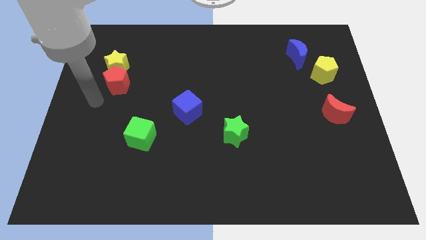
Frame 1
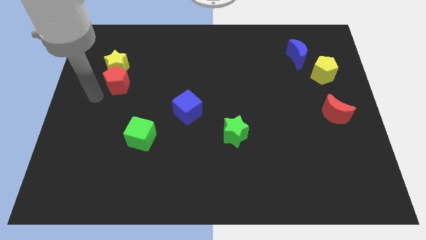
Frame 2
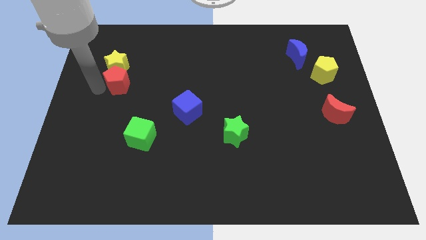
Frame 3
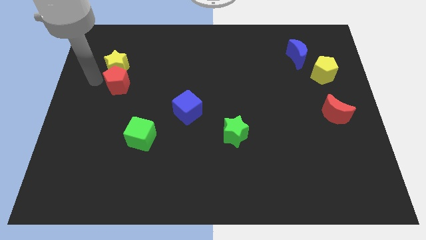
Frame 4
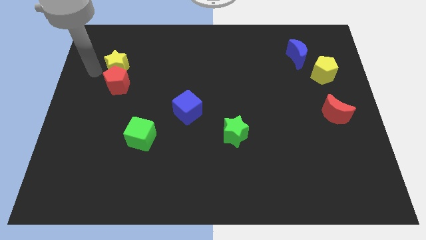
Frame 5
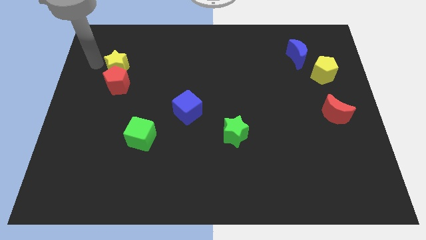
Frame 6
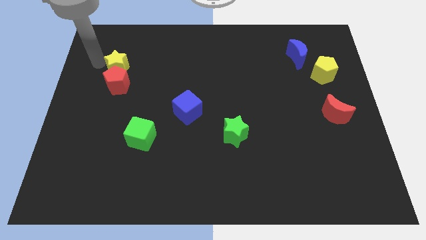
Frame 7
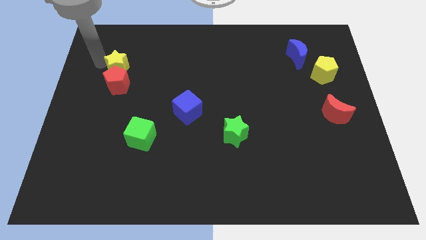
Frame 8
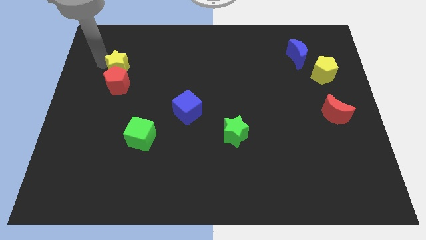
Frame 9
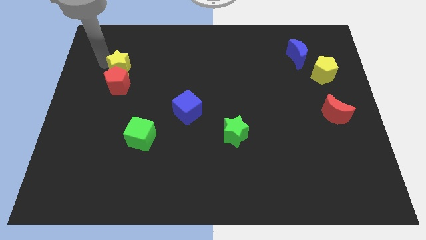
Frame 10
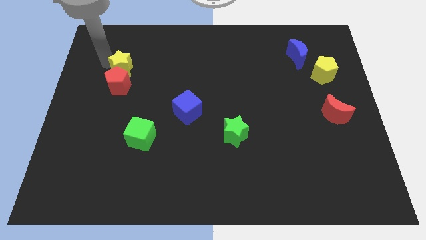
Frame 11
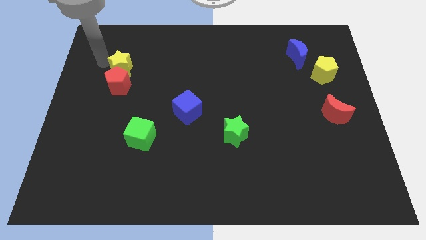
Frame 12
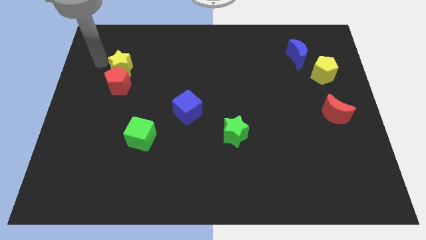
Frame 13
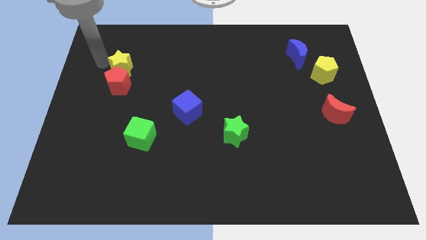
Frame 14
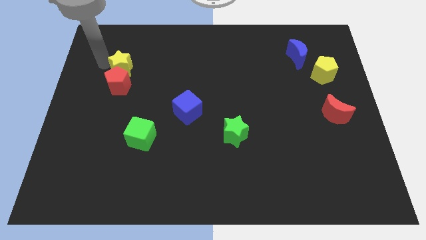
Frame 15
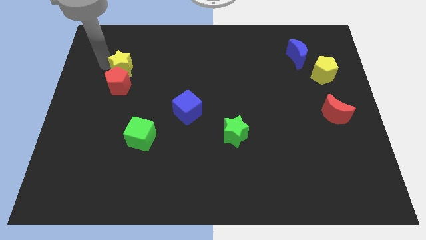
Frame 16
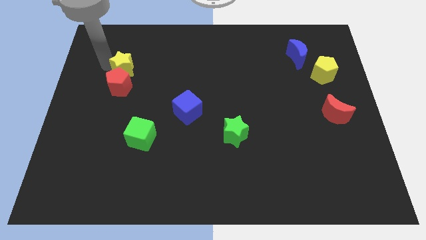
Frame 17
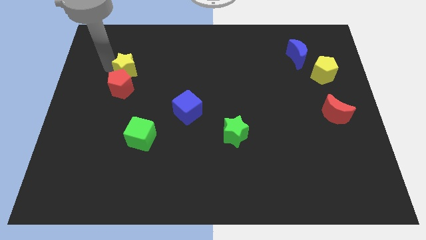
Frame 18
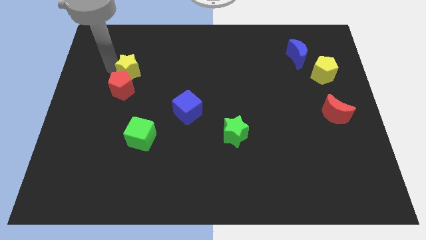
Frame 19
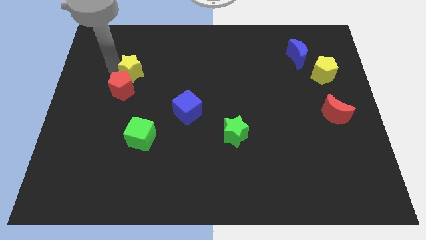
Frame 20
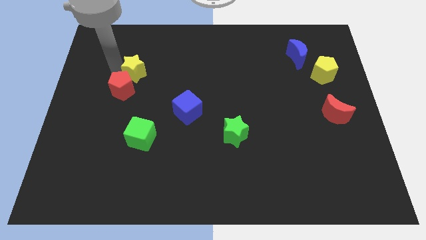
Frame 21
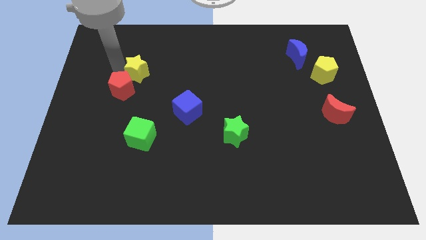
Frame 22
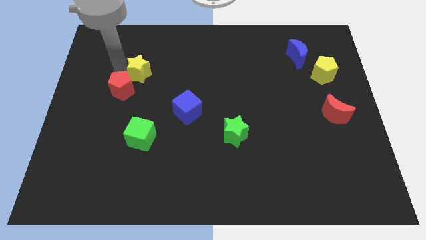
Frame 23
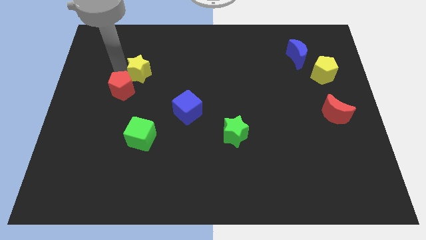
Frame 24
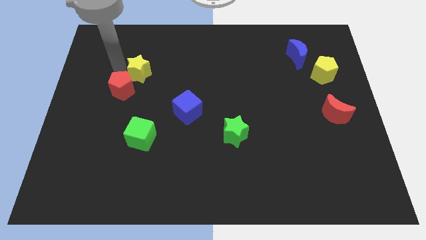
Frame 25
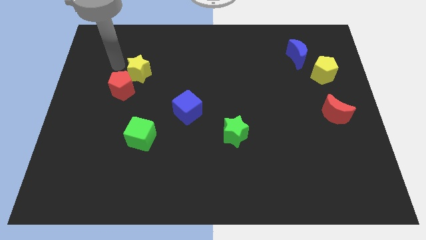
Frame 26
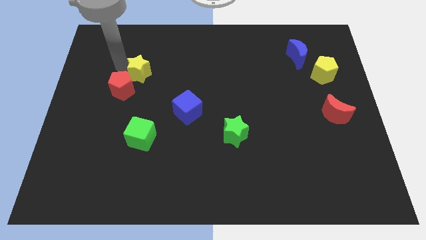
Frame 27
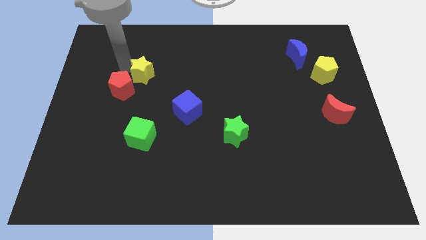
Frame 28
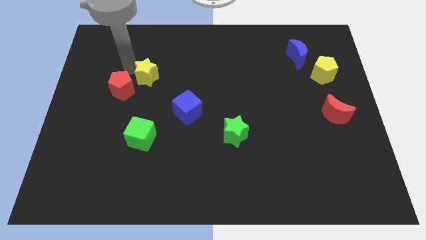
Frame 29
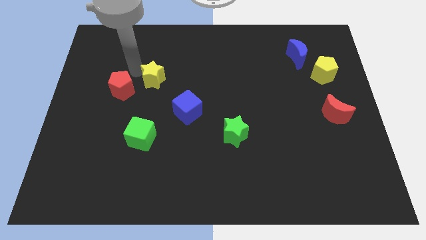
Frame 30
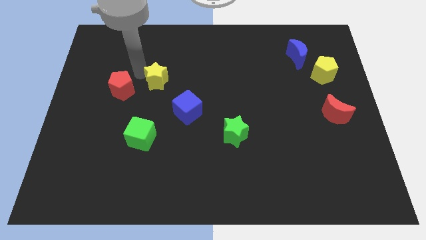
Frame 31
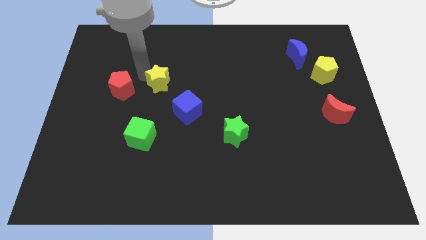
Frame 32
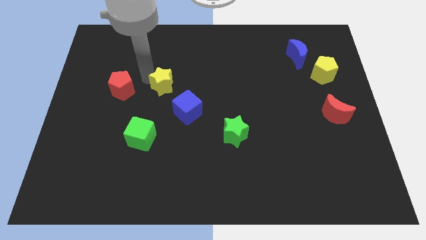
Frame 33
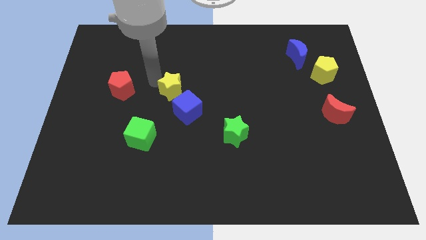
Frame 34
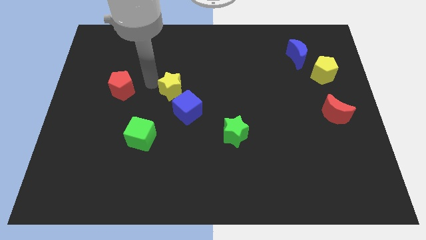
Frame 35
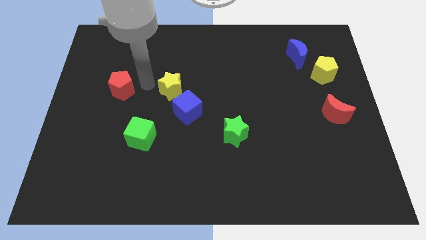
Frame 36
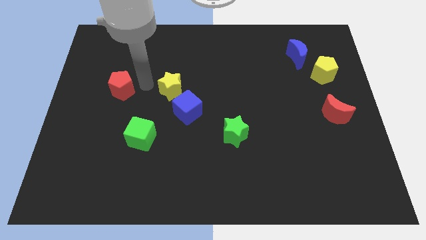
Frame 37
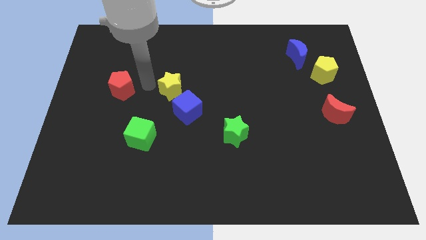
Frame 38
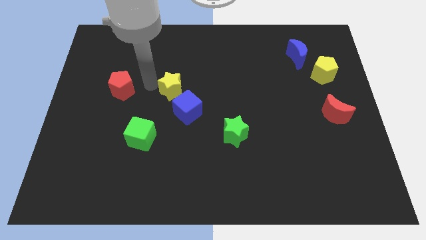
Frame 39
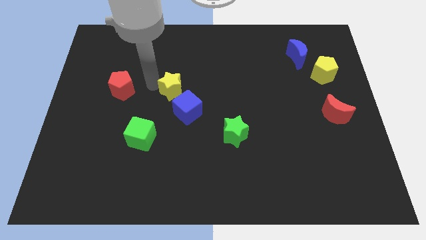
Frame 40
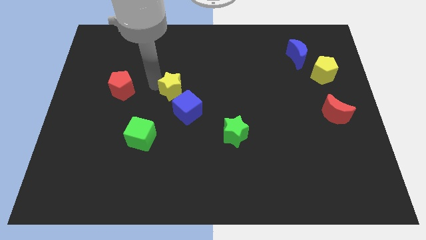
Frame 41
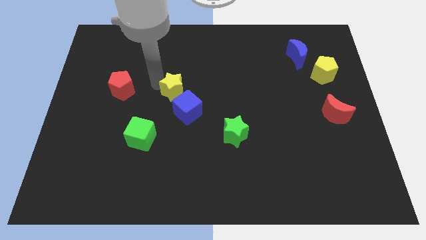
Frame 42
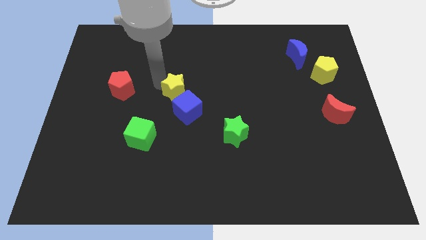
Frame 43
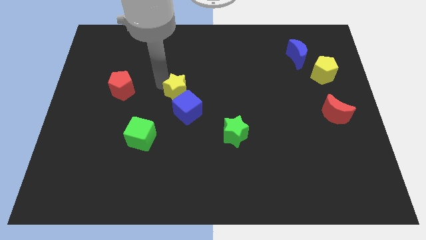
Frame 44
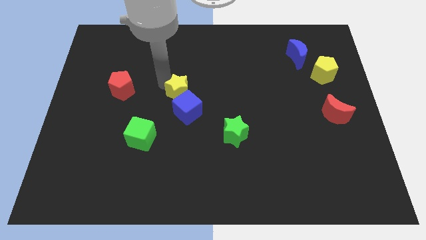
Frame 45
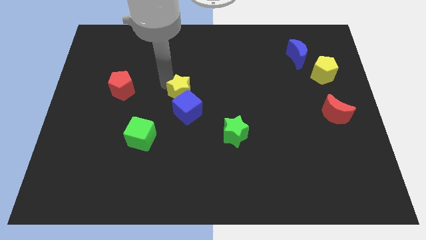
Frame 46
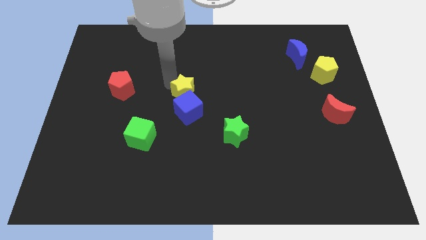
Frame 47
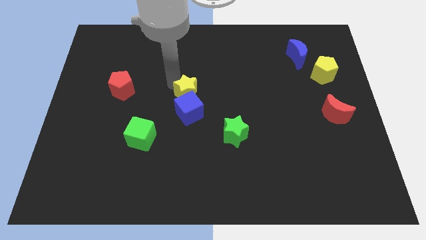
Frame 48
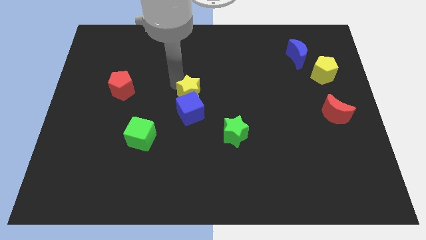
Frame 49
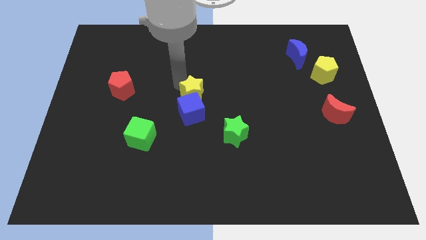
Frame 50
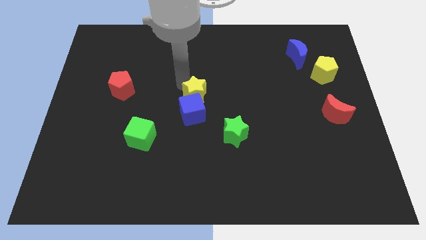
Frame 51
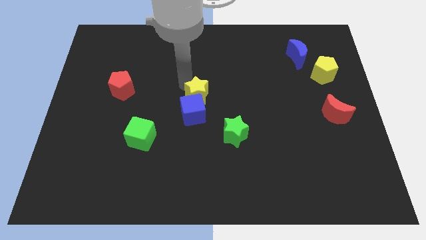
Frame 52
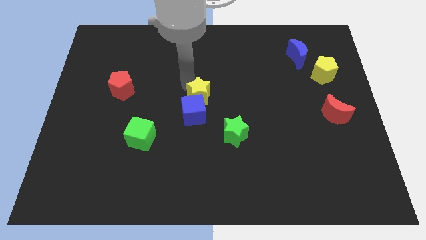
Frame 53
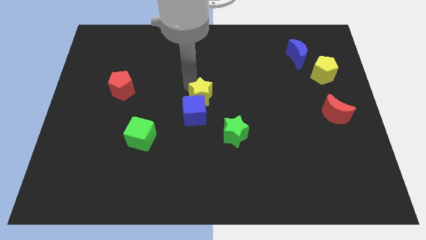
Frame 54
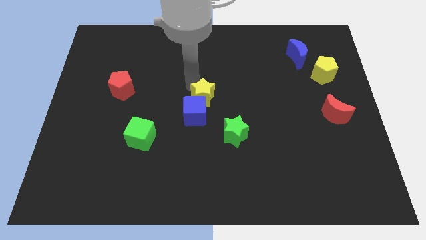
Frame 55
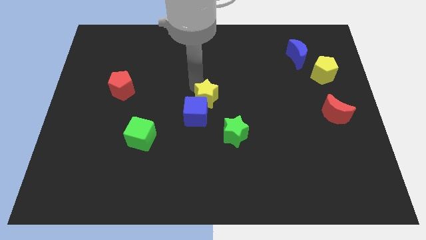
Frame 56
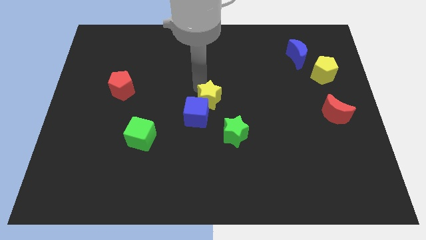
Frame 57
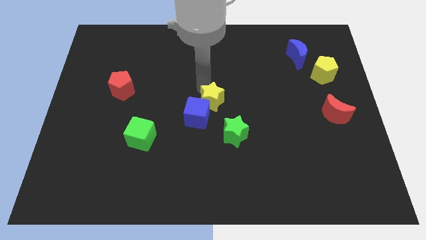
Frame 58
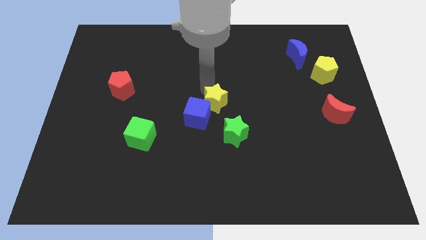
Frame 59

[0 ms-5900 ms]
put the yellow star just right of the blue cube

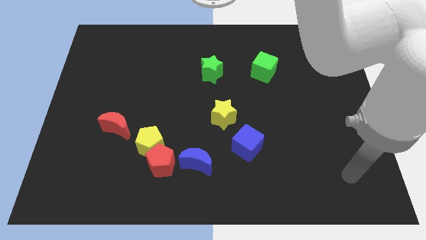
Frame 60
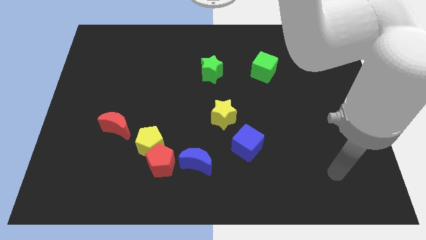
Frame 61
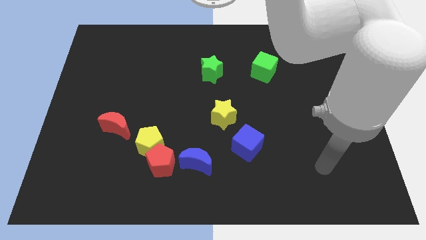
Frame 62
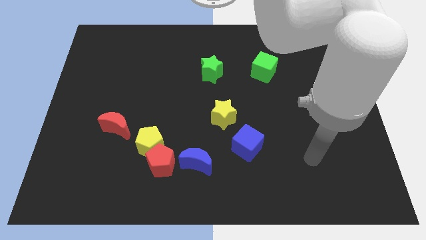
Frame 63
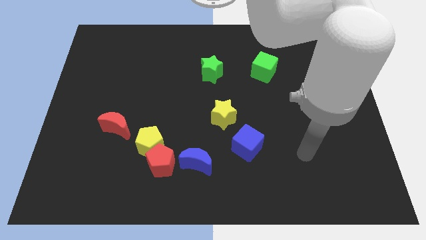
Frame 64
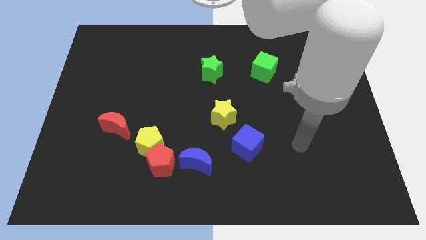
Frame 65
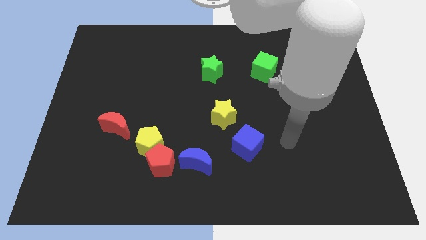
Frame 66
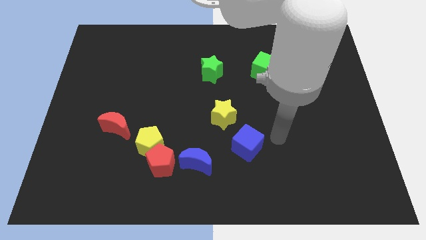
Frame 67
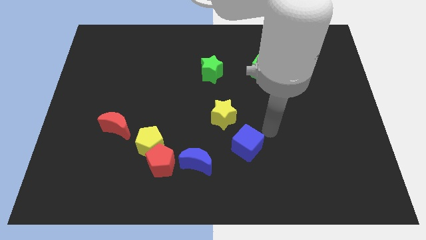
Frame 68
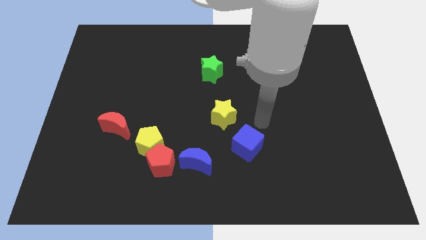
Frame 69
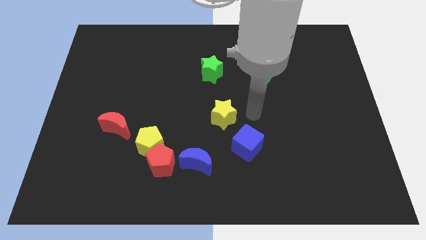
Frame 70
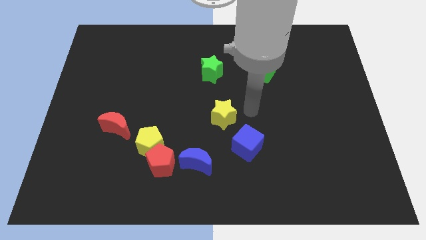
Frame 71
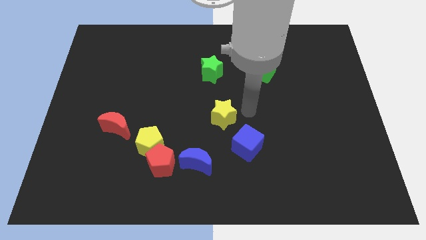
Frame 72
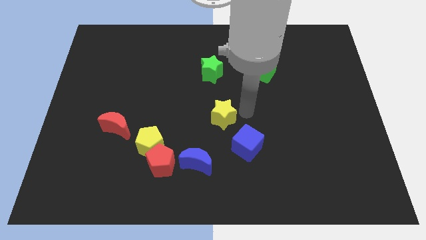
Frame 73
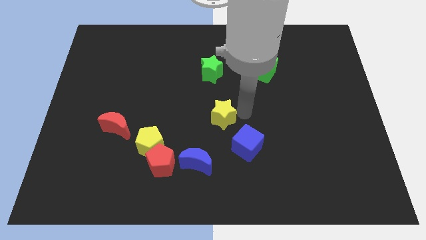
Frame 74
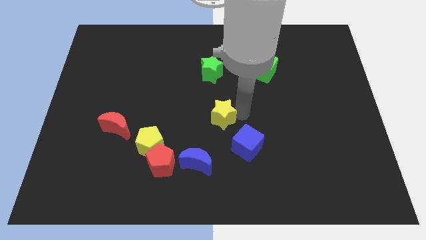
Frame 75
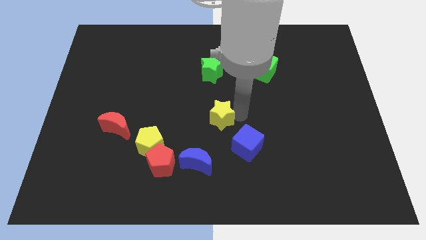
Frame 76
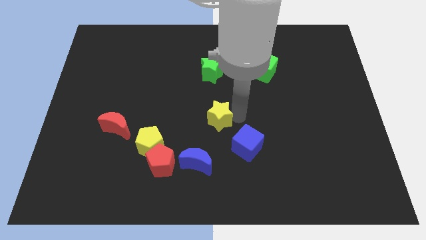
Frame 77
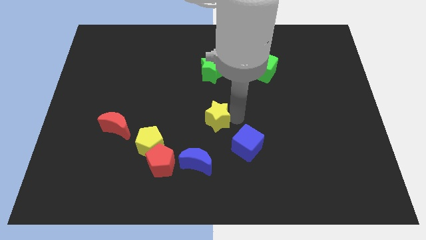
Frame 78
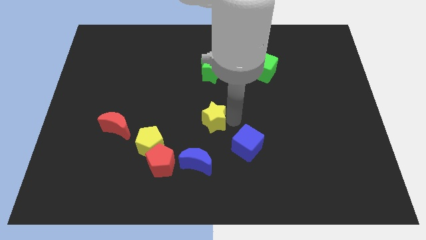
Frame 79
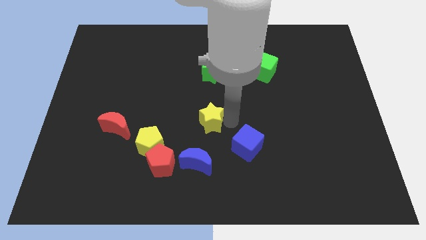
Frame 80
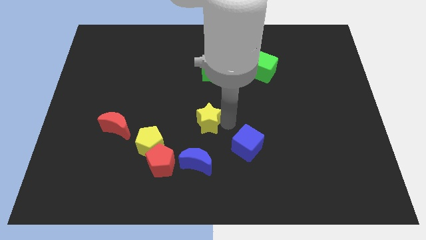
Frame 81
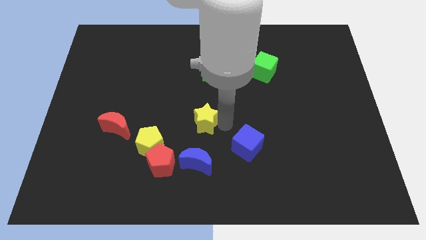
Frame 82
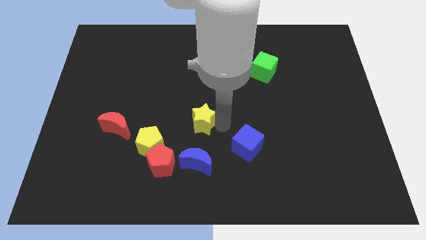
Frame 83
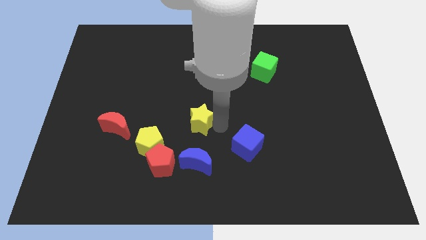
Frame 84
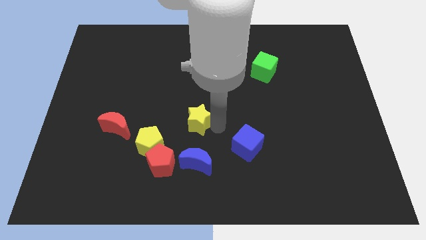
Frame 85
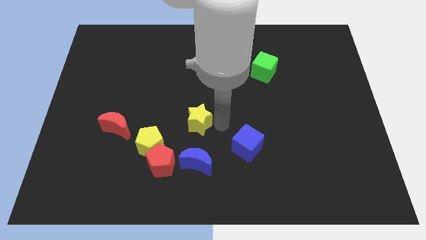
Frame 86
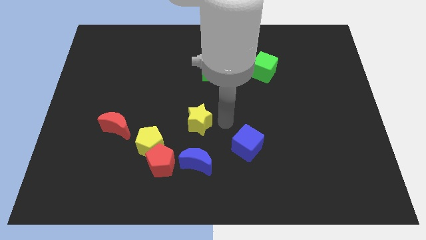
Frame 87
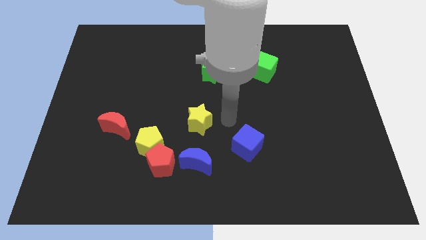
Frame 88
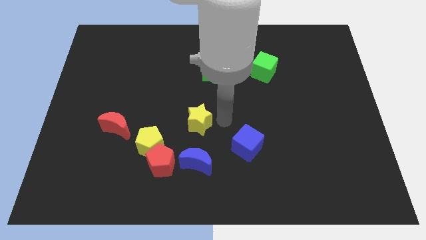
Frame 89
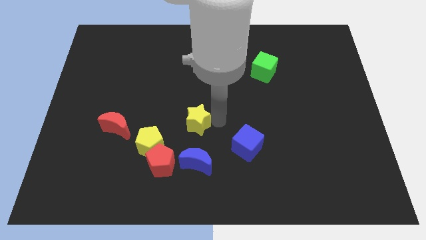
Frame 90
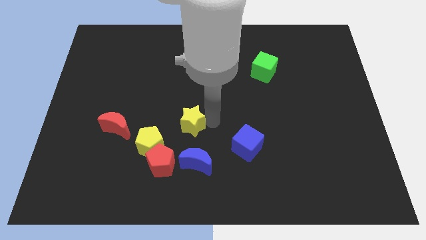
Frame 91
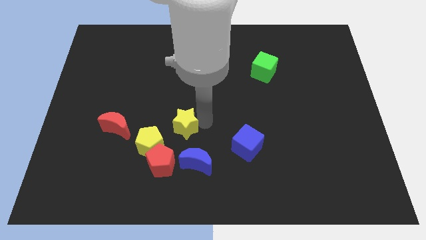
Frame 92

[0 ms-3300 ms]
slide the yellow star to the right of the red moon
